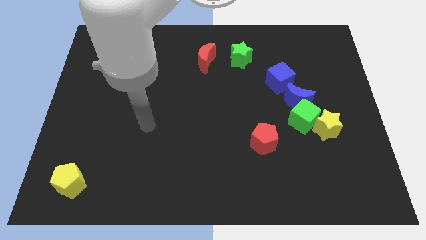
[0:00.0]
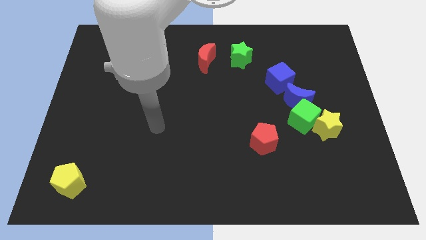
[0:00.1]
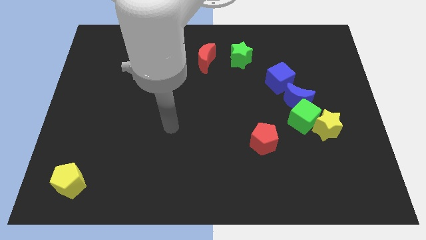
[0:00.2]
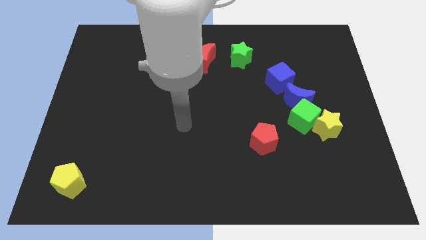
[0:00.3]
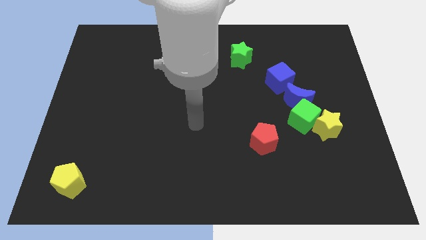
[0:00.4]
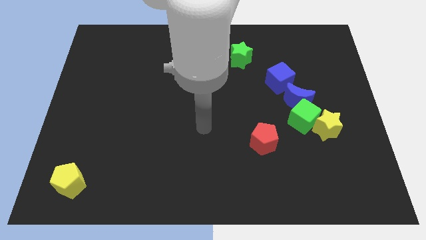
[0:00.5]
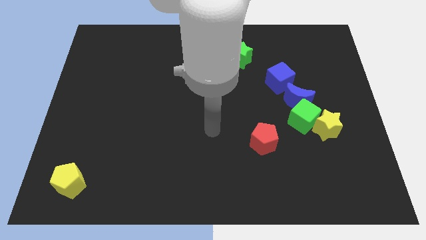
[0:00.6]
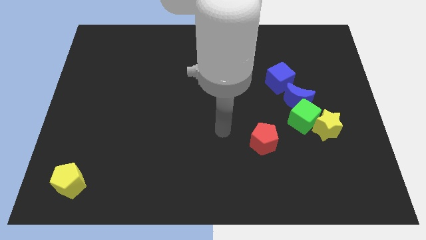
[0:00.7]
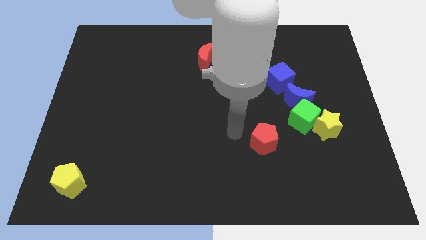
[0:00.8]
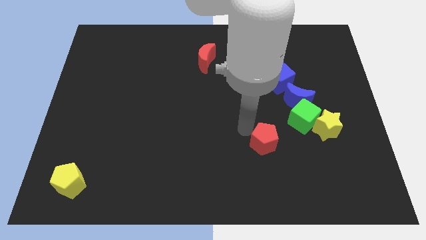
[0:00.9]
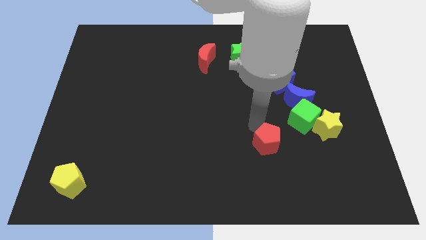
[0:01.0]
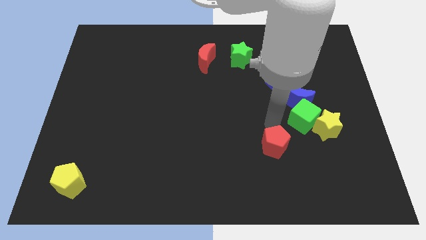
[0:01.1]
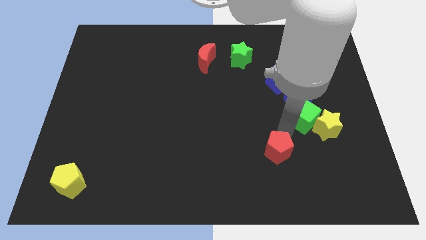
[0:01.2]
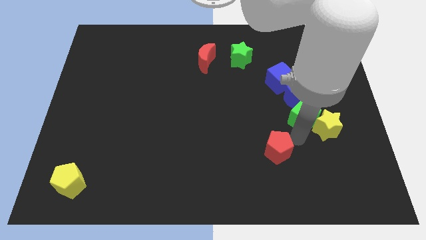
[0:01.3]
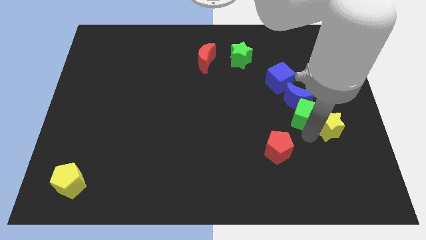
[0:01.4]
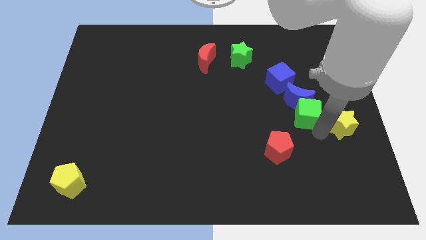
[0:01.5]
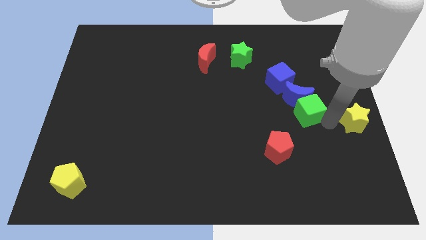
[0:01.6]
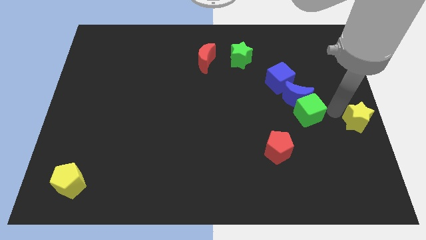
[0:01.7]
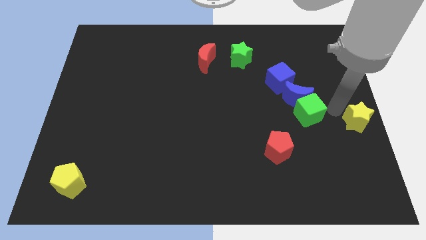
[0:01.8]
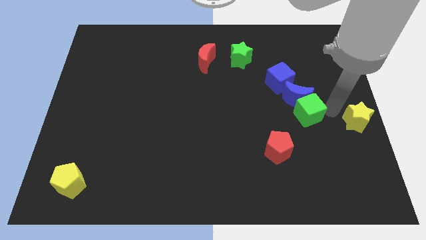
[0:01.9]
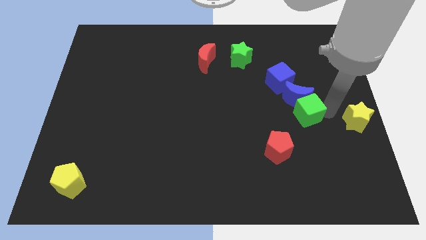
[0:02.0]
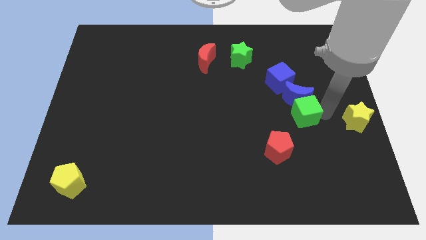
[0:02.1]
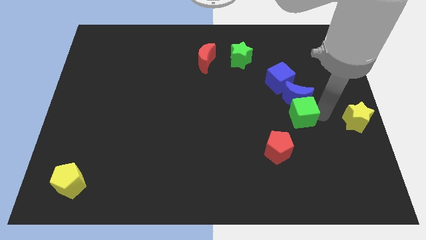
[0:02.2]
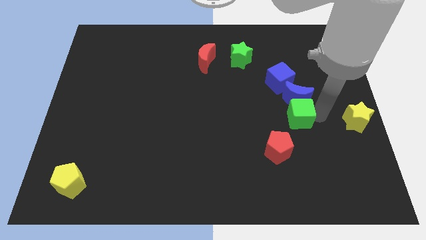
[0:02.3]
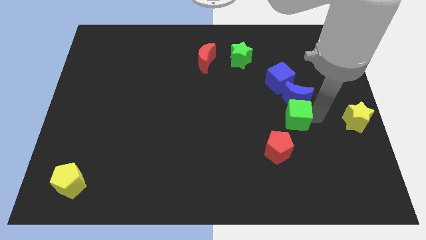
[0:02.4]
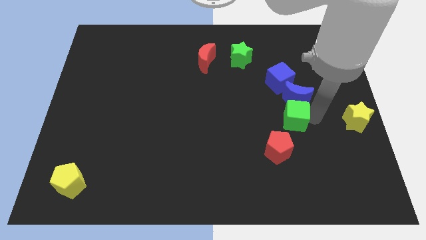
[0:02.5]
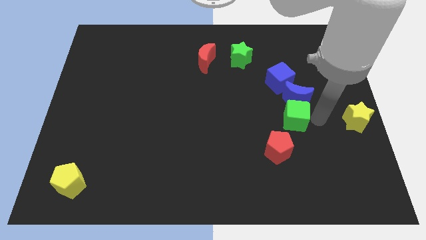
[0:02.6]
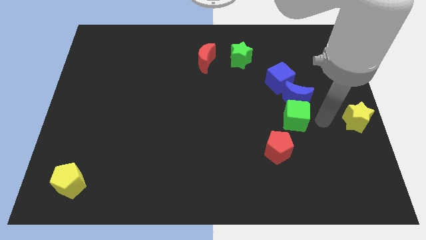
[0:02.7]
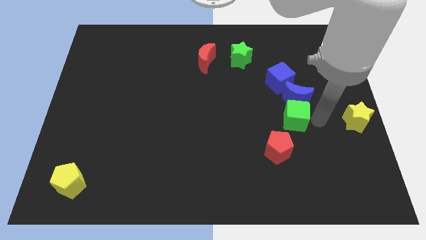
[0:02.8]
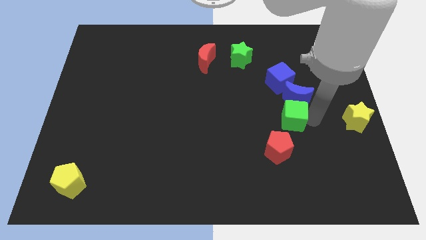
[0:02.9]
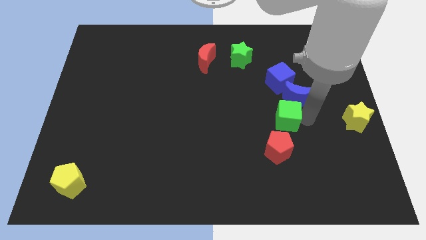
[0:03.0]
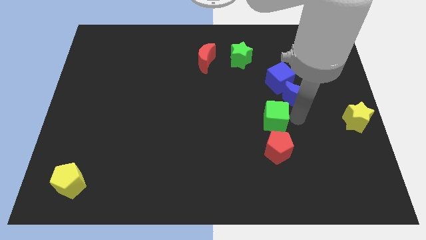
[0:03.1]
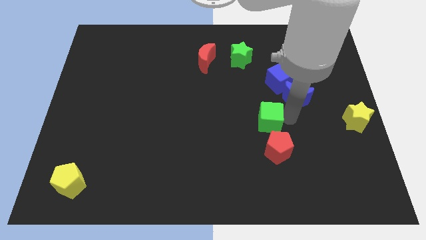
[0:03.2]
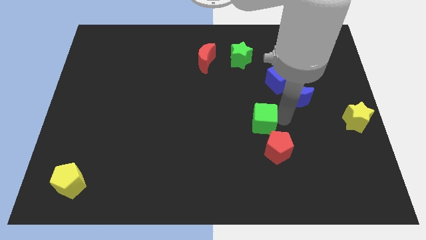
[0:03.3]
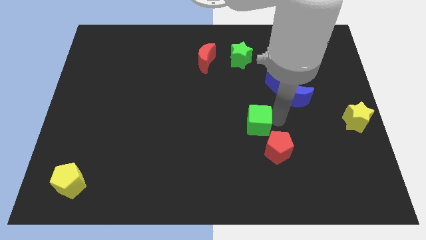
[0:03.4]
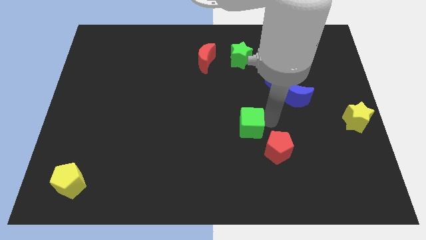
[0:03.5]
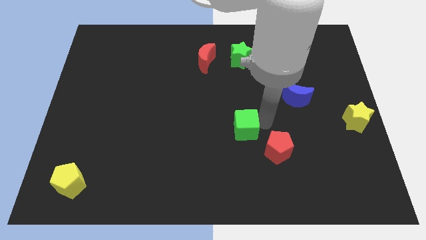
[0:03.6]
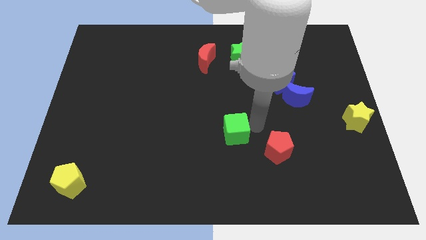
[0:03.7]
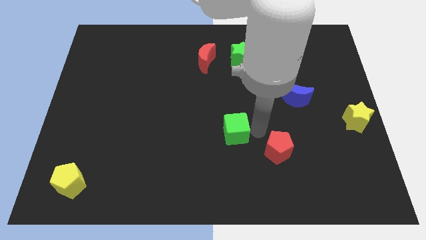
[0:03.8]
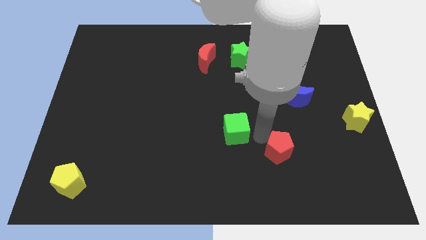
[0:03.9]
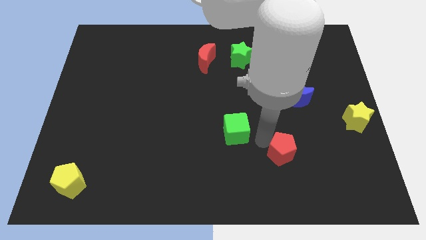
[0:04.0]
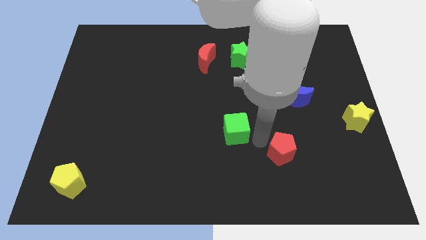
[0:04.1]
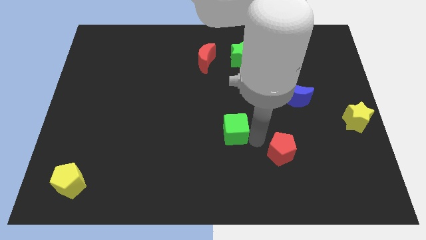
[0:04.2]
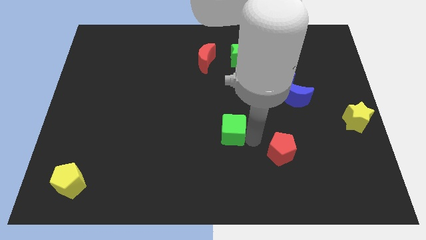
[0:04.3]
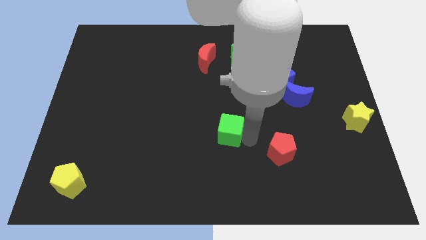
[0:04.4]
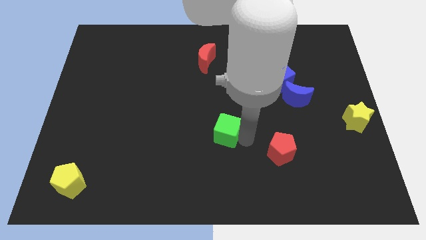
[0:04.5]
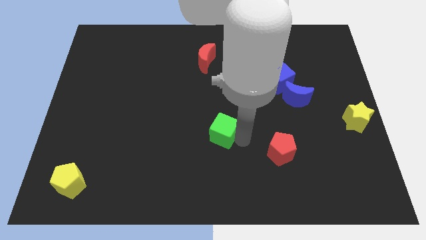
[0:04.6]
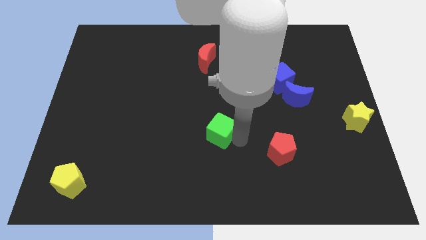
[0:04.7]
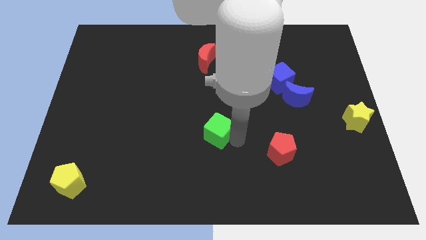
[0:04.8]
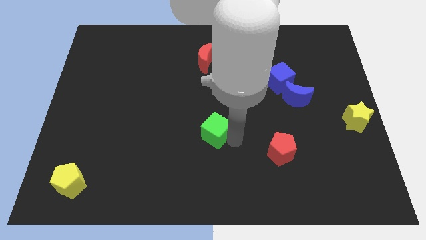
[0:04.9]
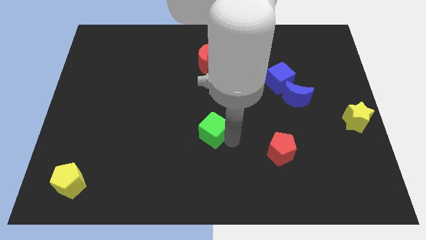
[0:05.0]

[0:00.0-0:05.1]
push the green cube to the left

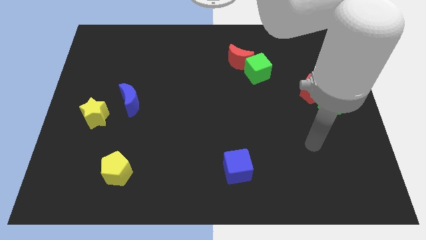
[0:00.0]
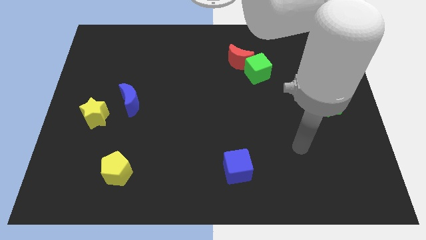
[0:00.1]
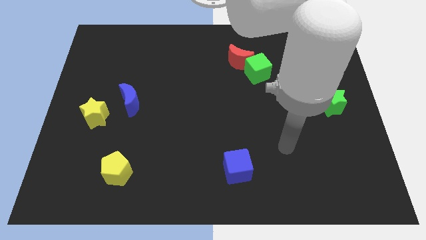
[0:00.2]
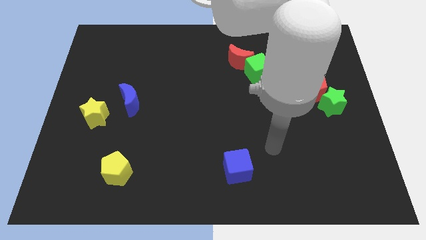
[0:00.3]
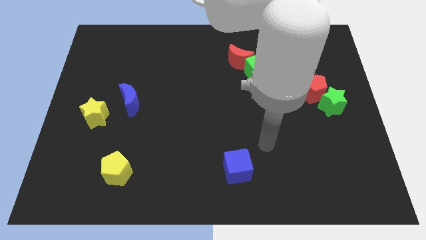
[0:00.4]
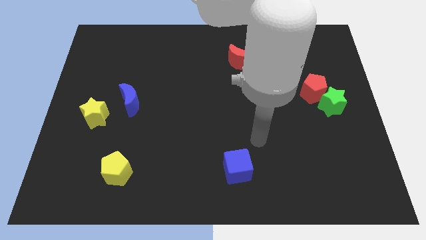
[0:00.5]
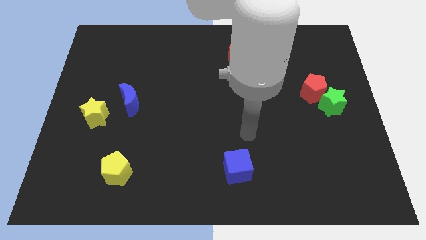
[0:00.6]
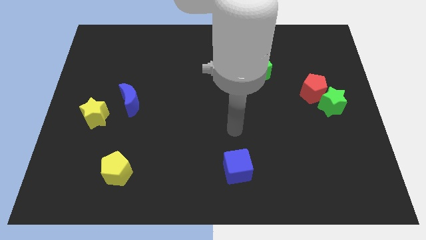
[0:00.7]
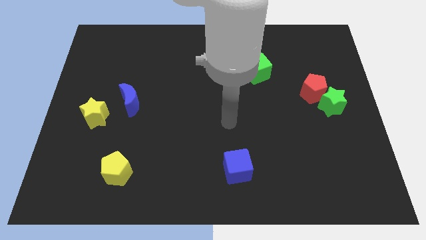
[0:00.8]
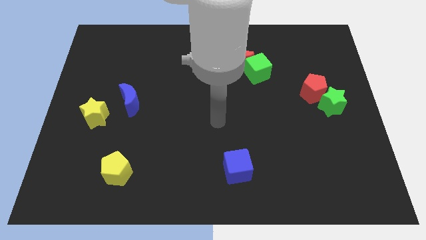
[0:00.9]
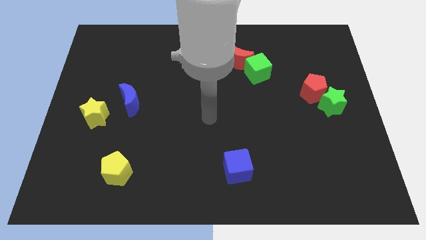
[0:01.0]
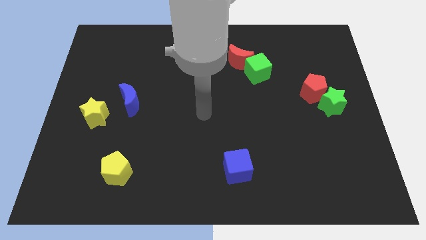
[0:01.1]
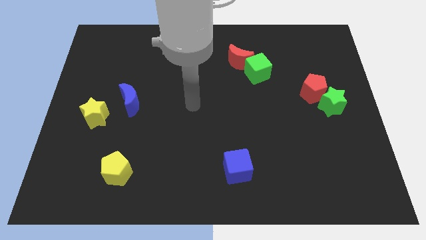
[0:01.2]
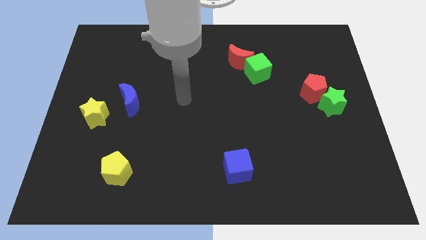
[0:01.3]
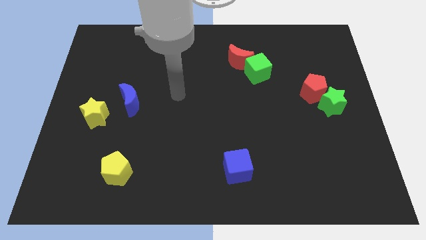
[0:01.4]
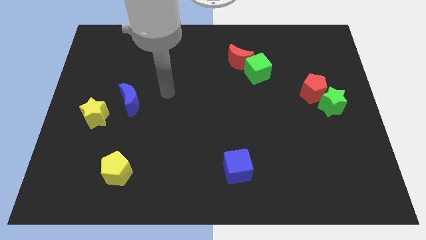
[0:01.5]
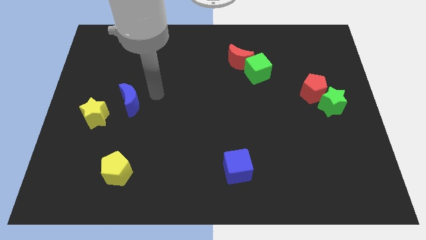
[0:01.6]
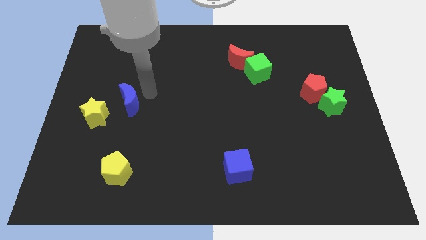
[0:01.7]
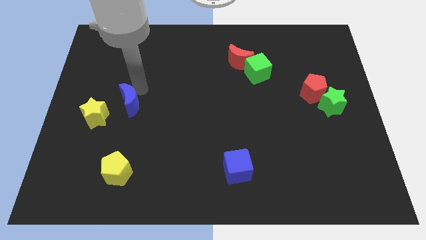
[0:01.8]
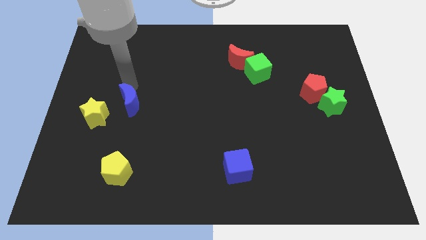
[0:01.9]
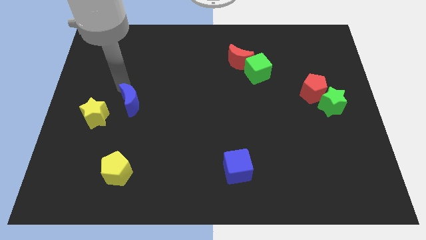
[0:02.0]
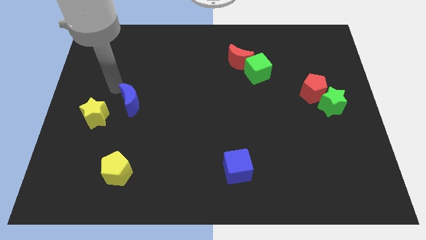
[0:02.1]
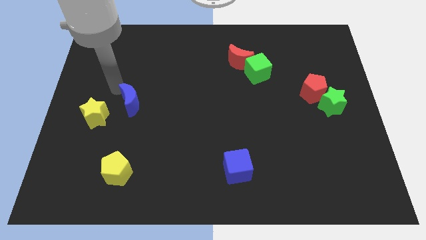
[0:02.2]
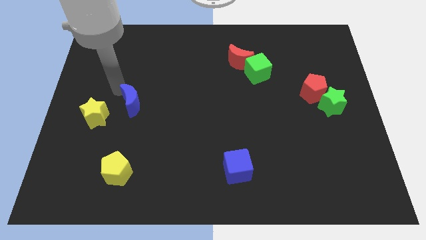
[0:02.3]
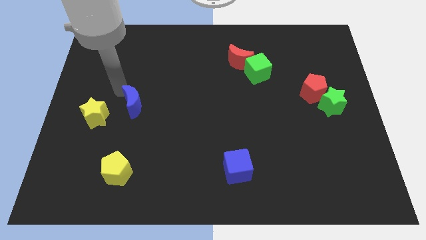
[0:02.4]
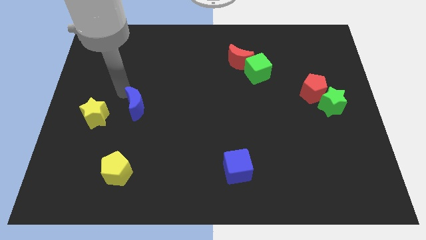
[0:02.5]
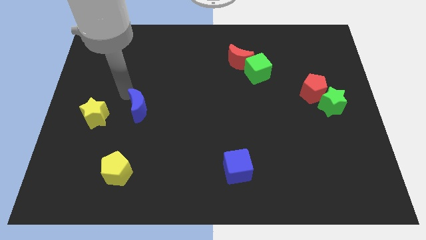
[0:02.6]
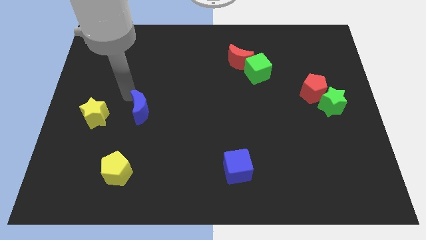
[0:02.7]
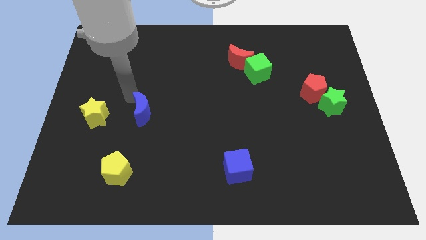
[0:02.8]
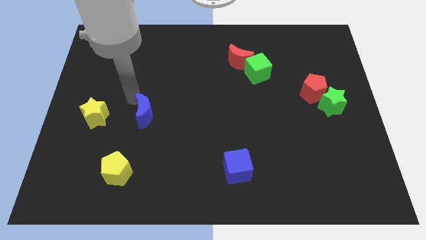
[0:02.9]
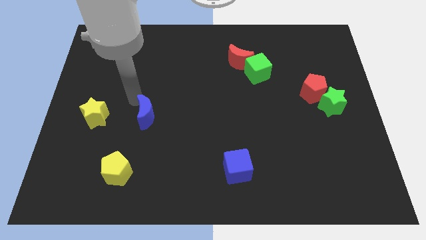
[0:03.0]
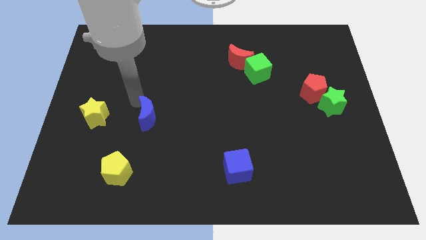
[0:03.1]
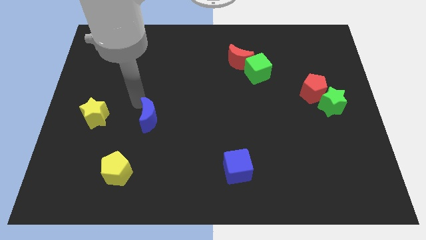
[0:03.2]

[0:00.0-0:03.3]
push the blue moon diagonally down and to the right a little
